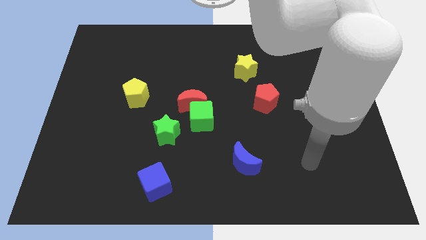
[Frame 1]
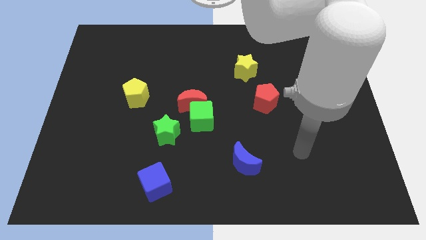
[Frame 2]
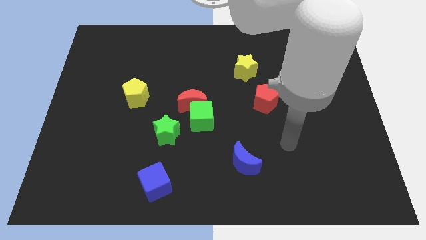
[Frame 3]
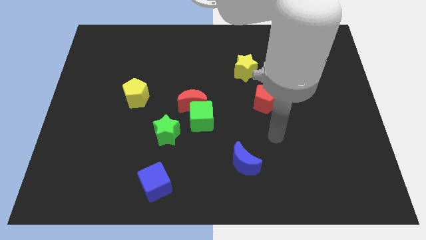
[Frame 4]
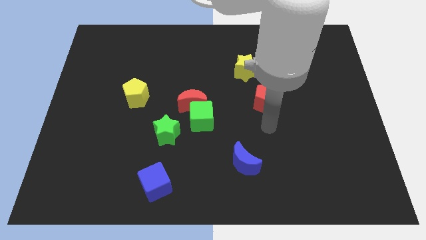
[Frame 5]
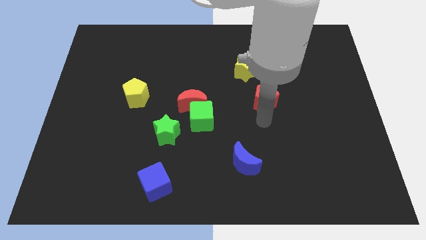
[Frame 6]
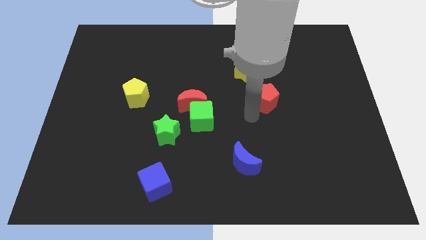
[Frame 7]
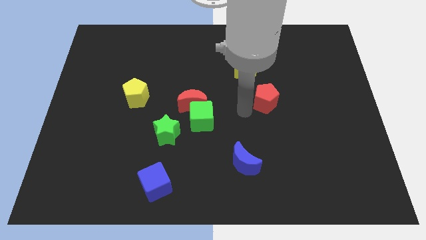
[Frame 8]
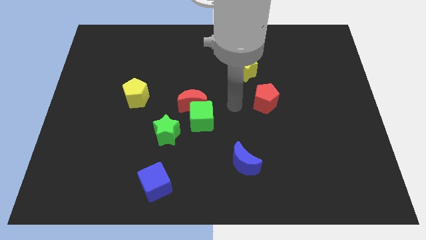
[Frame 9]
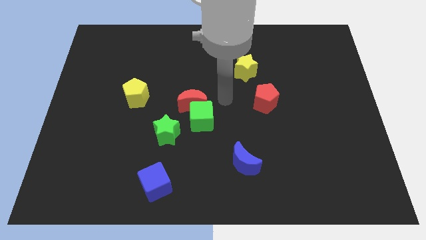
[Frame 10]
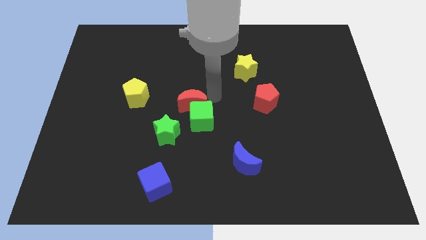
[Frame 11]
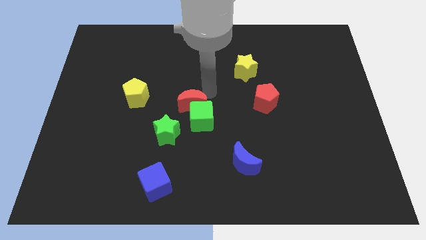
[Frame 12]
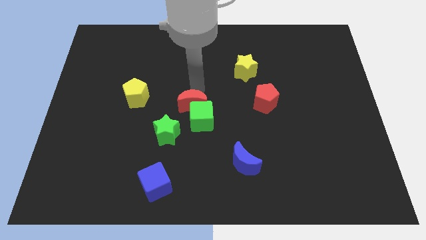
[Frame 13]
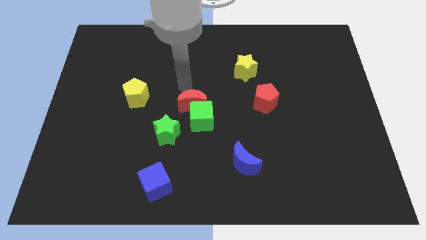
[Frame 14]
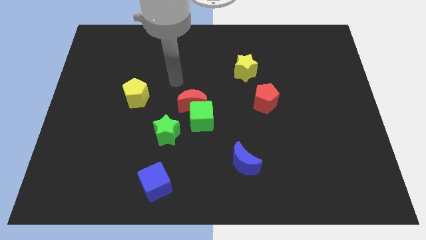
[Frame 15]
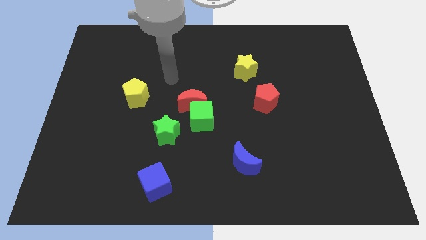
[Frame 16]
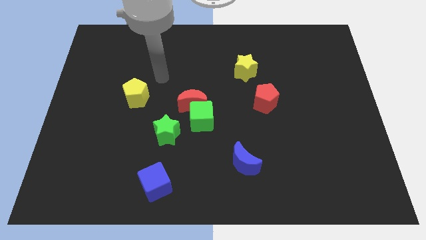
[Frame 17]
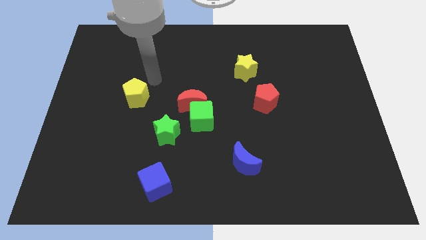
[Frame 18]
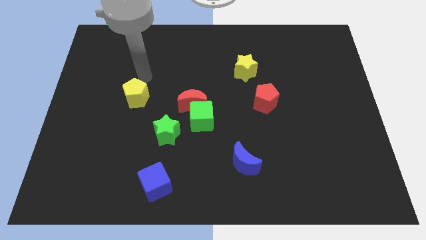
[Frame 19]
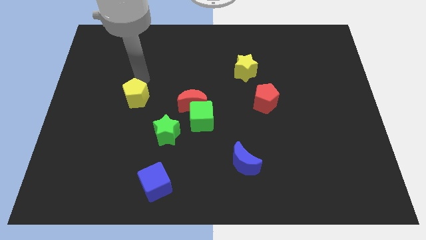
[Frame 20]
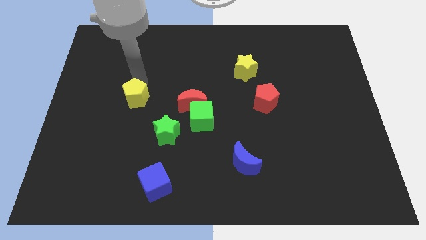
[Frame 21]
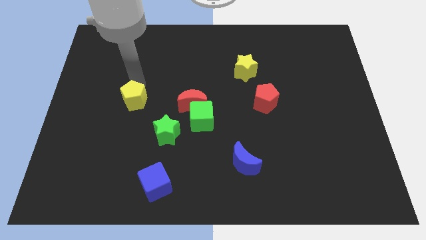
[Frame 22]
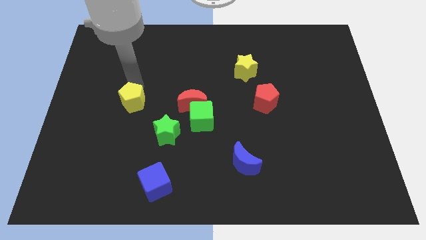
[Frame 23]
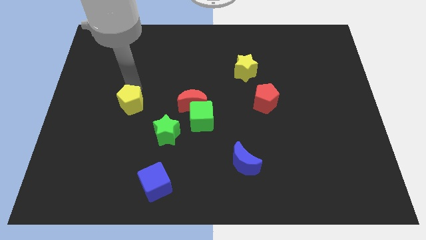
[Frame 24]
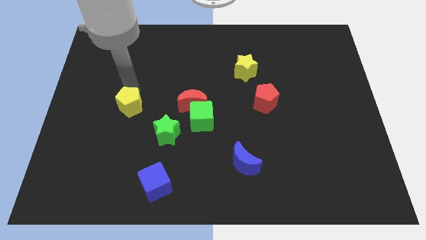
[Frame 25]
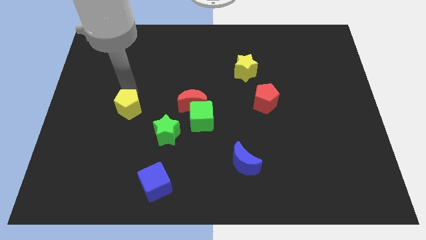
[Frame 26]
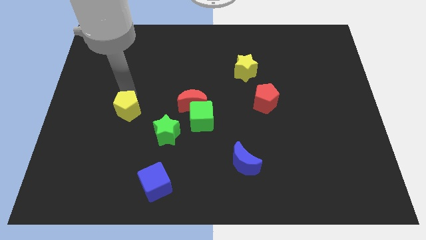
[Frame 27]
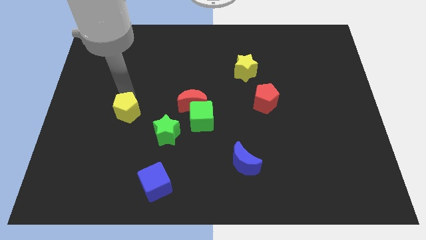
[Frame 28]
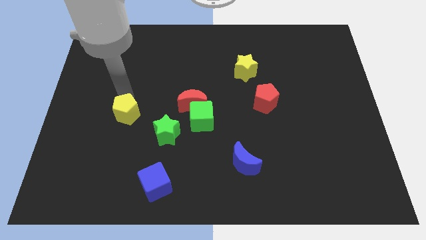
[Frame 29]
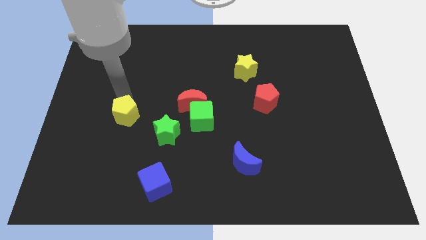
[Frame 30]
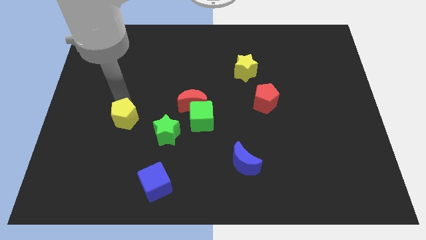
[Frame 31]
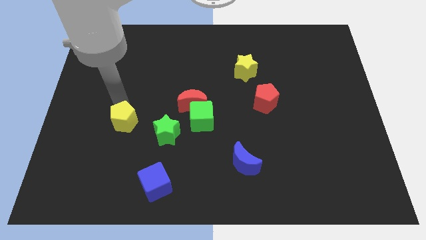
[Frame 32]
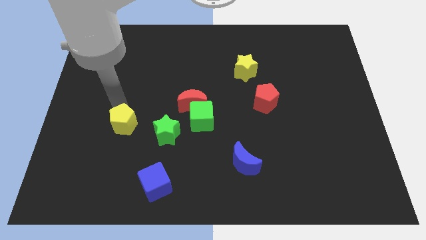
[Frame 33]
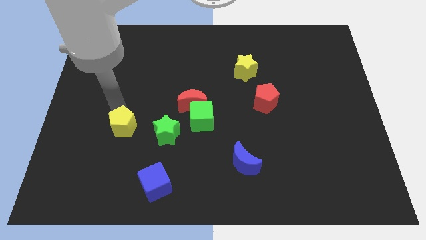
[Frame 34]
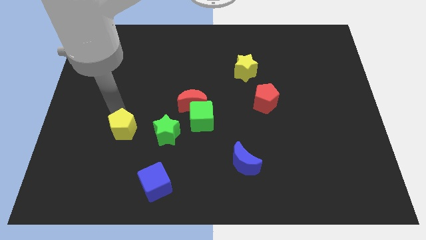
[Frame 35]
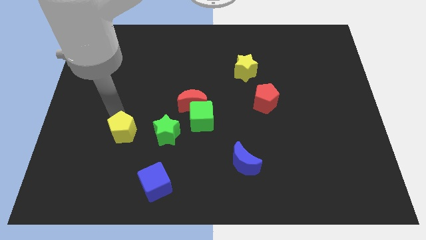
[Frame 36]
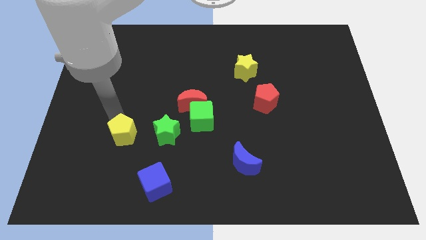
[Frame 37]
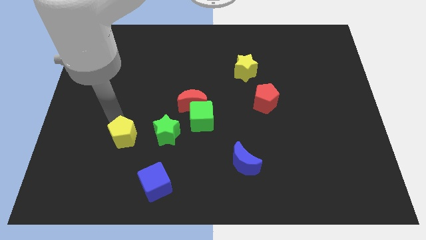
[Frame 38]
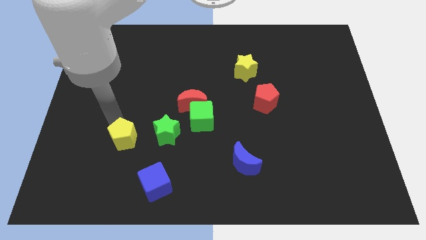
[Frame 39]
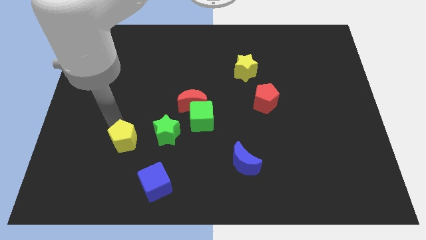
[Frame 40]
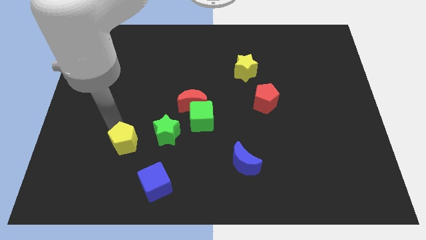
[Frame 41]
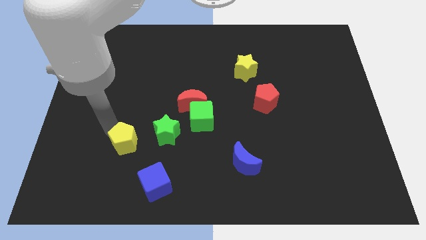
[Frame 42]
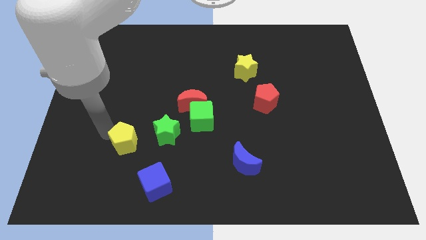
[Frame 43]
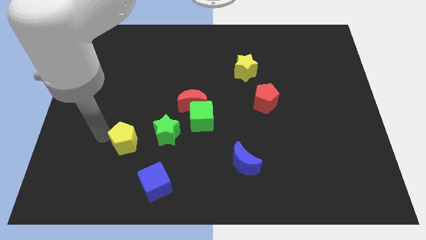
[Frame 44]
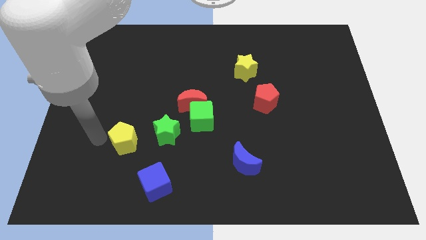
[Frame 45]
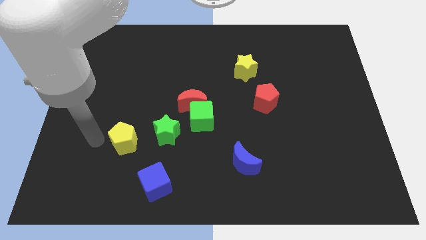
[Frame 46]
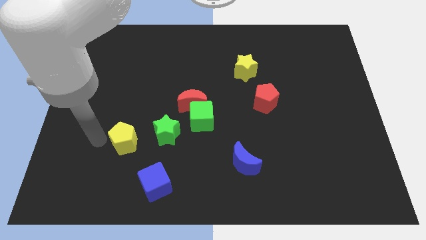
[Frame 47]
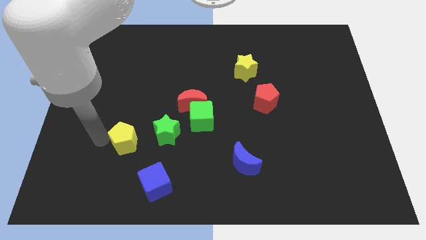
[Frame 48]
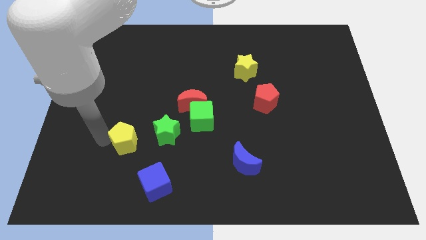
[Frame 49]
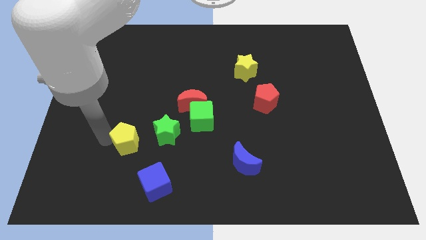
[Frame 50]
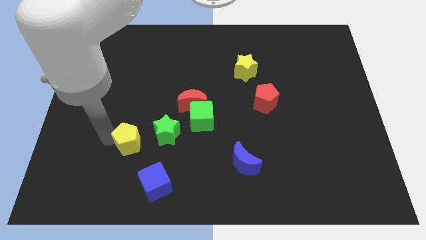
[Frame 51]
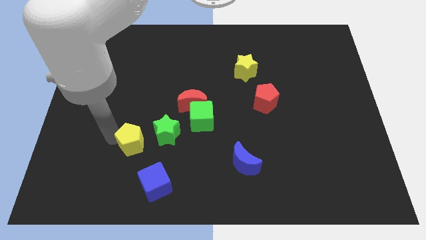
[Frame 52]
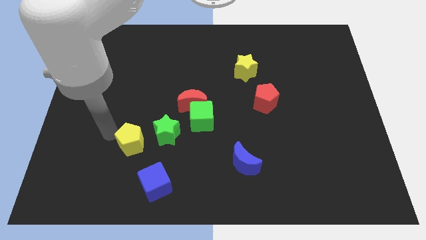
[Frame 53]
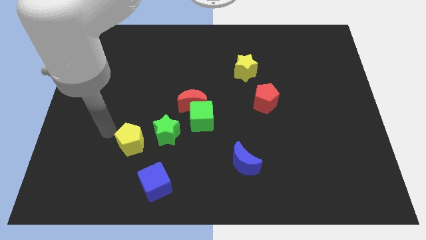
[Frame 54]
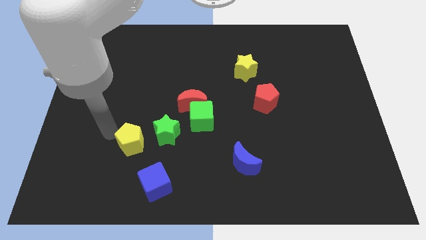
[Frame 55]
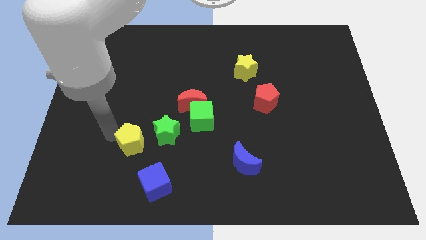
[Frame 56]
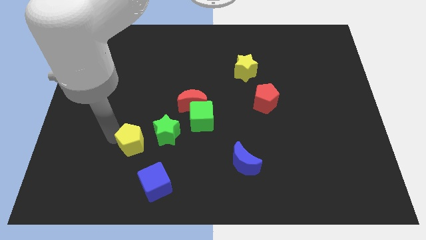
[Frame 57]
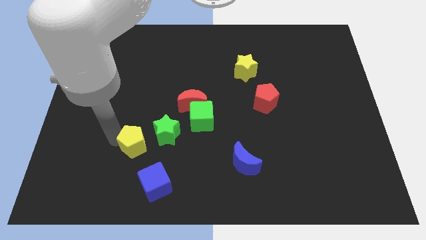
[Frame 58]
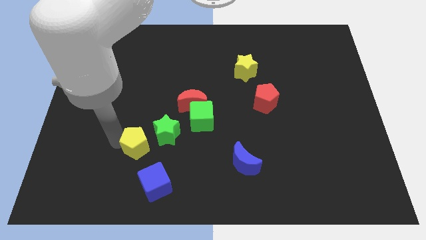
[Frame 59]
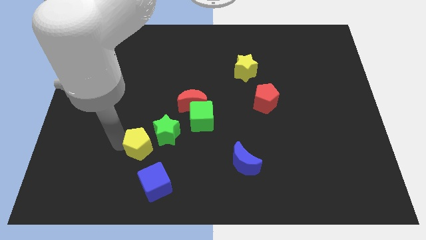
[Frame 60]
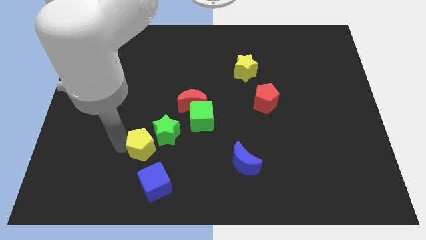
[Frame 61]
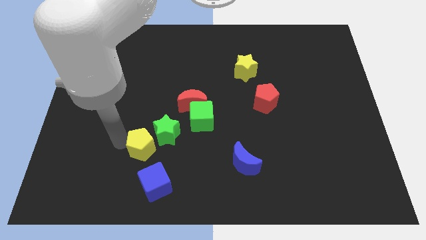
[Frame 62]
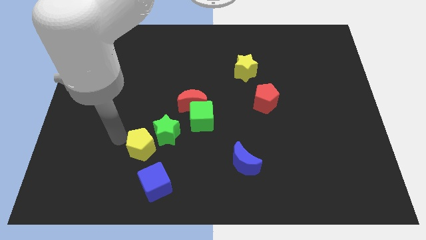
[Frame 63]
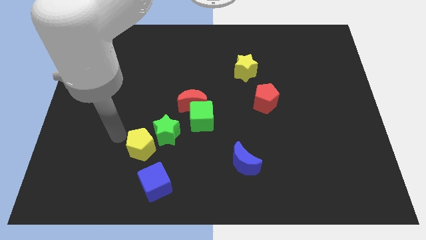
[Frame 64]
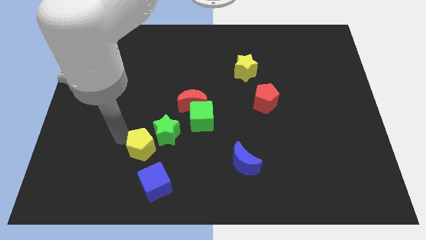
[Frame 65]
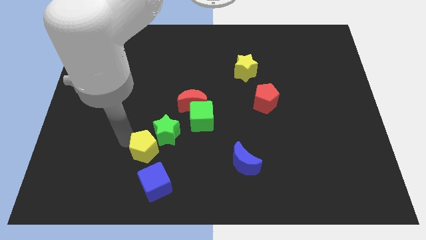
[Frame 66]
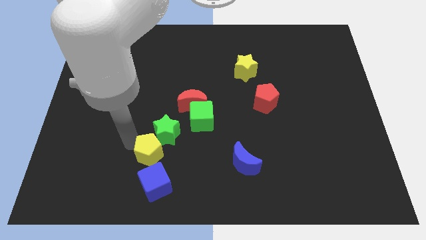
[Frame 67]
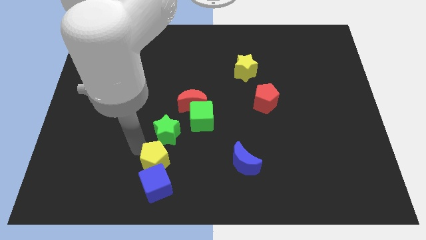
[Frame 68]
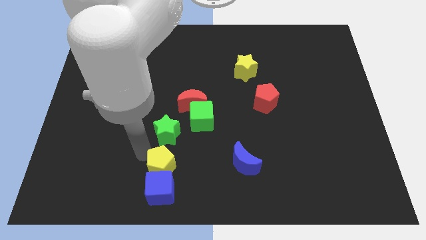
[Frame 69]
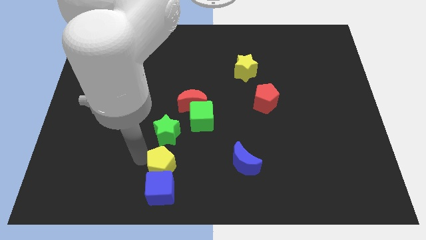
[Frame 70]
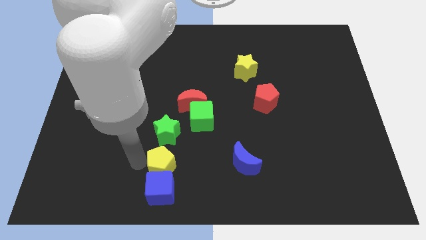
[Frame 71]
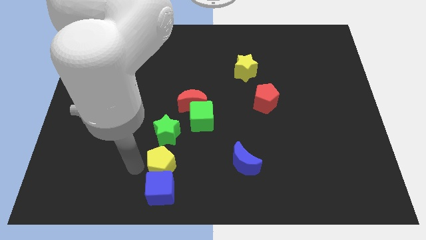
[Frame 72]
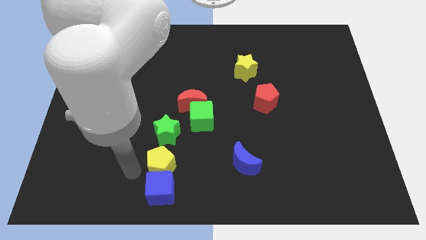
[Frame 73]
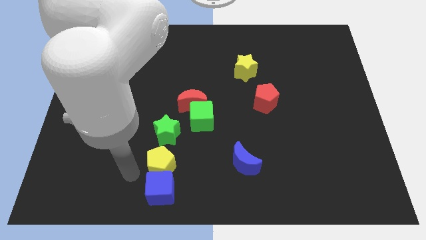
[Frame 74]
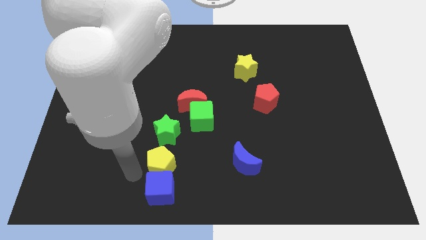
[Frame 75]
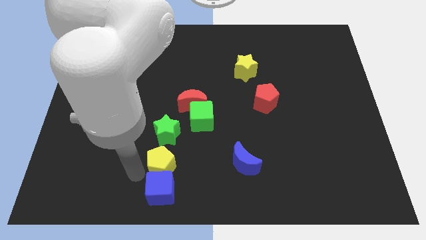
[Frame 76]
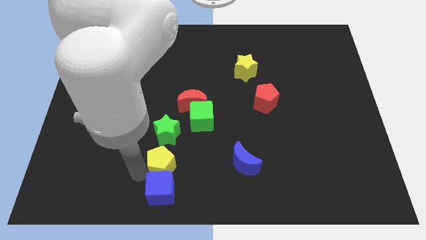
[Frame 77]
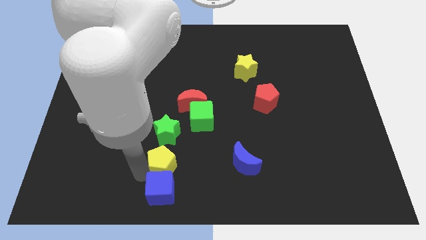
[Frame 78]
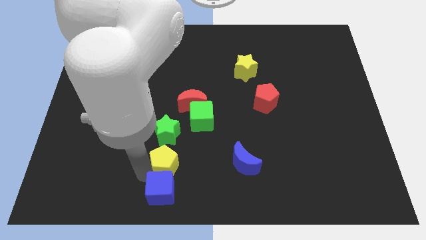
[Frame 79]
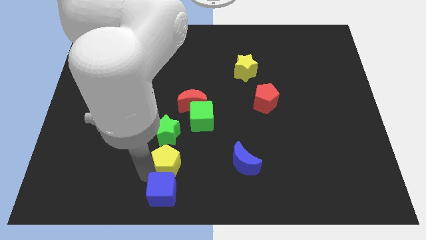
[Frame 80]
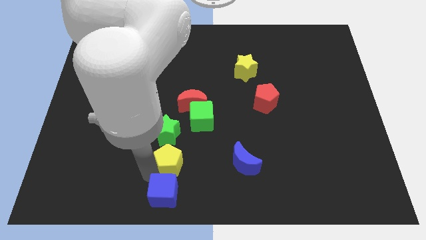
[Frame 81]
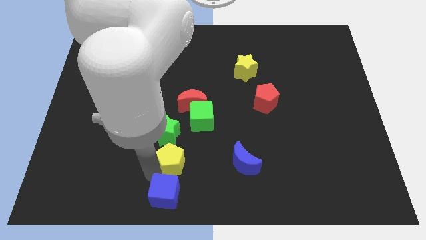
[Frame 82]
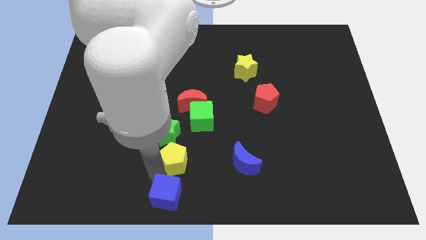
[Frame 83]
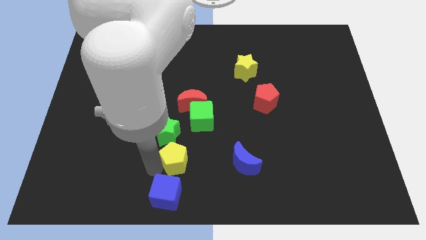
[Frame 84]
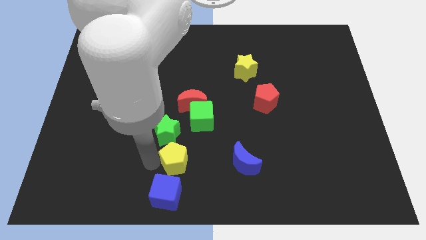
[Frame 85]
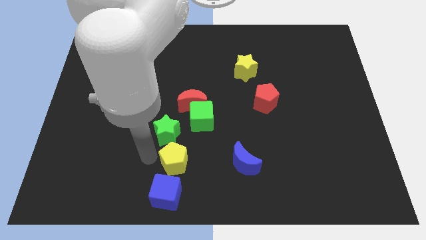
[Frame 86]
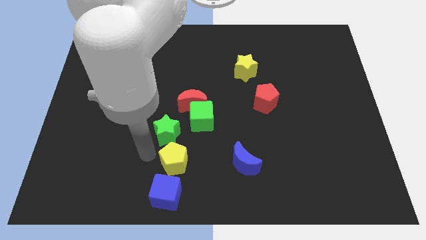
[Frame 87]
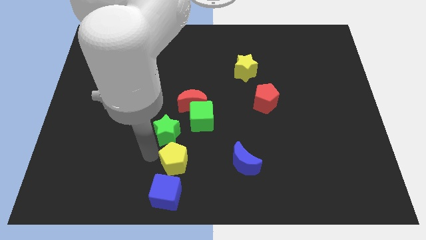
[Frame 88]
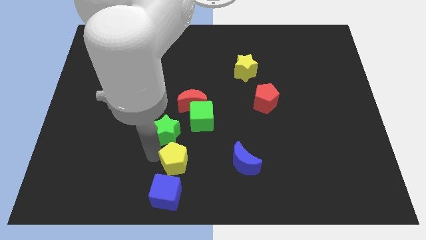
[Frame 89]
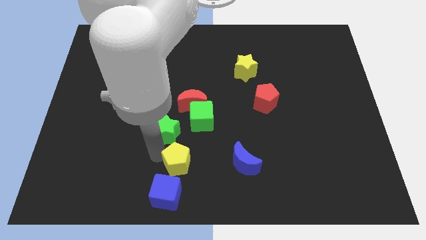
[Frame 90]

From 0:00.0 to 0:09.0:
slide the yellow pentagon downwards and to the right diagonally
